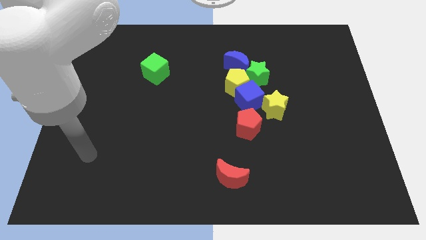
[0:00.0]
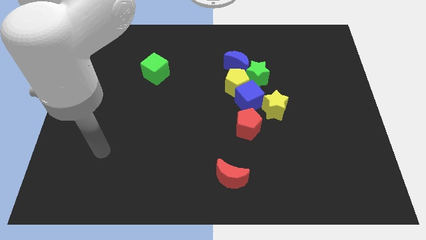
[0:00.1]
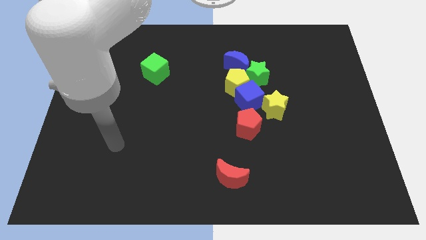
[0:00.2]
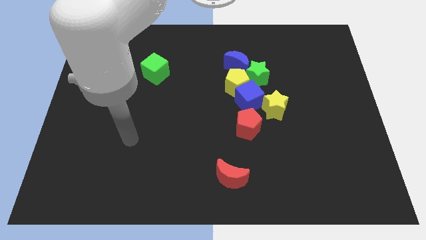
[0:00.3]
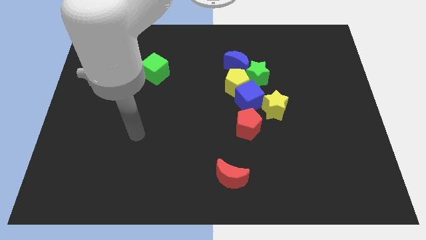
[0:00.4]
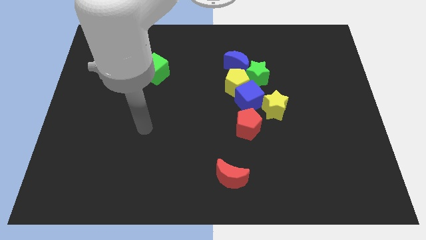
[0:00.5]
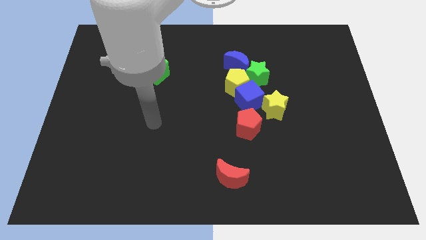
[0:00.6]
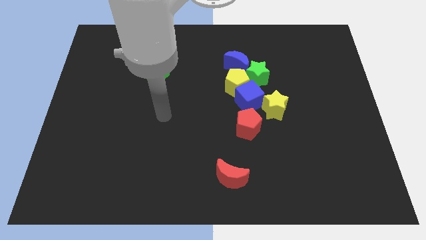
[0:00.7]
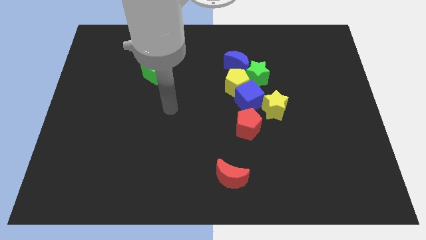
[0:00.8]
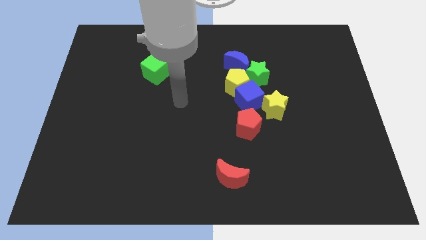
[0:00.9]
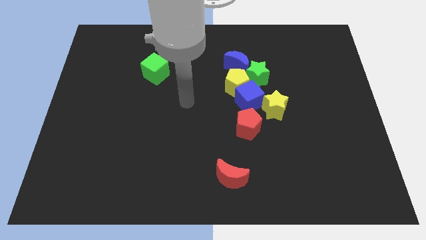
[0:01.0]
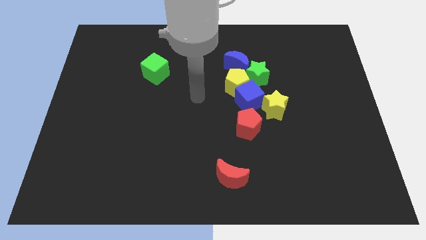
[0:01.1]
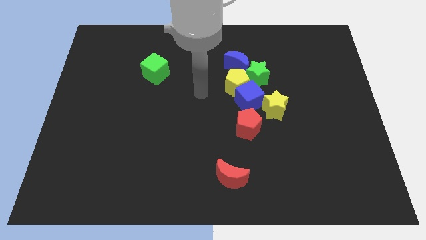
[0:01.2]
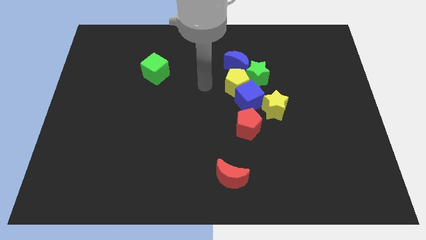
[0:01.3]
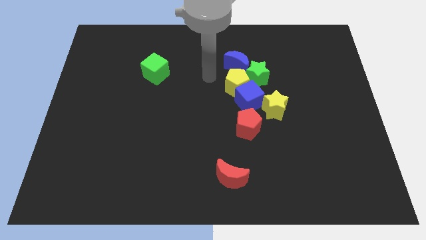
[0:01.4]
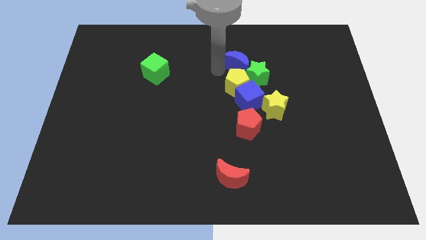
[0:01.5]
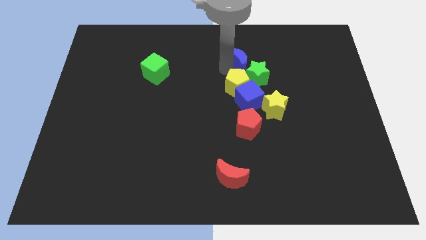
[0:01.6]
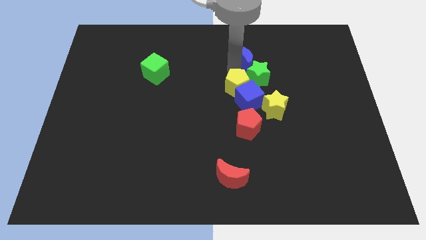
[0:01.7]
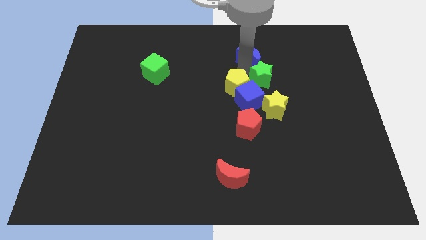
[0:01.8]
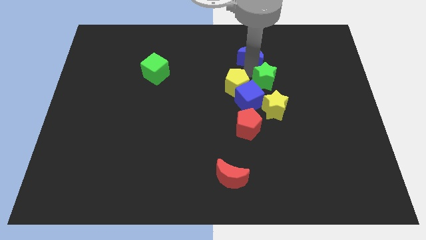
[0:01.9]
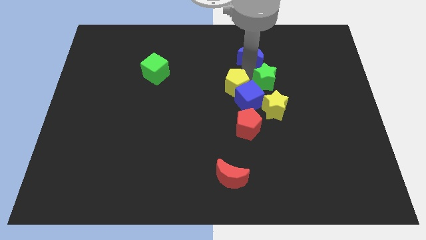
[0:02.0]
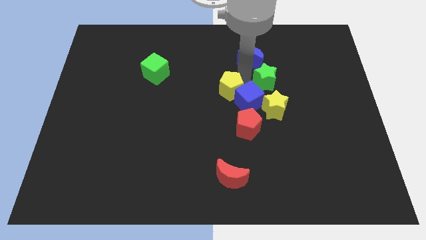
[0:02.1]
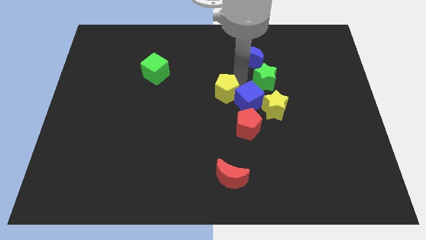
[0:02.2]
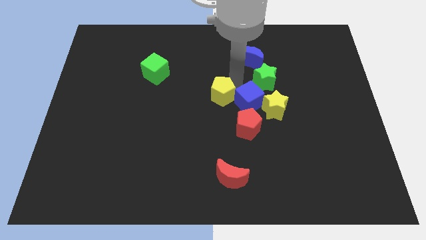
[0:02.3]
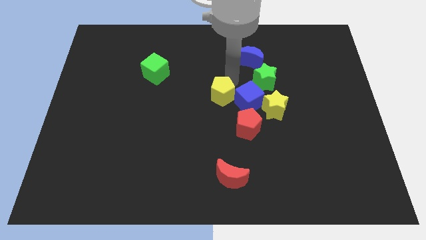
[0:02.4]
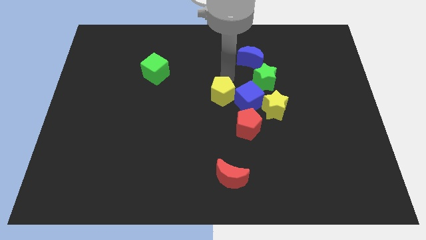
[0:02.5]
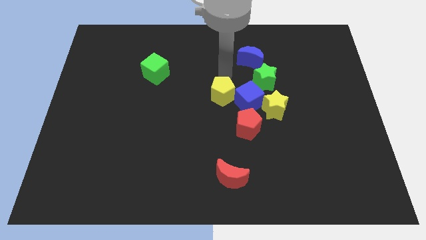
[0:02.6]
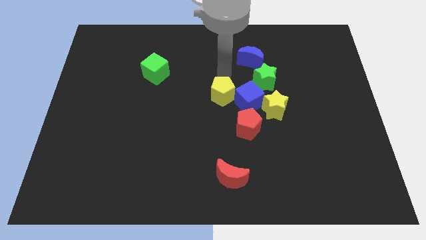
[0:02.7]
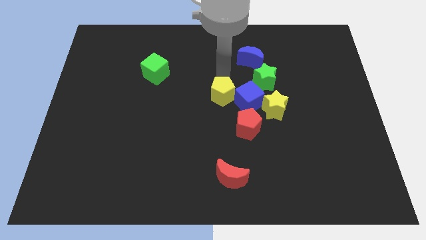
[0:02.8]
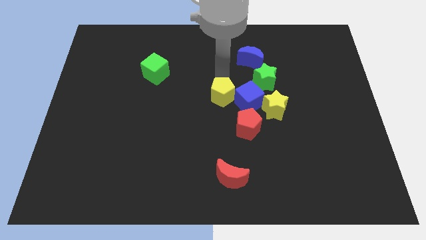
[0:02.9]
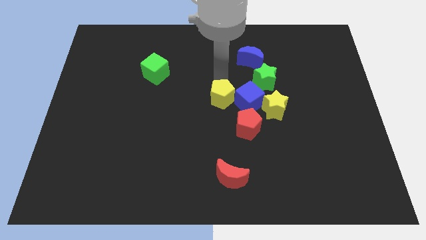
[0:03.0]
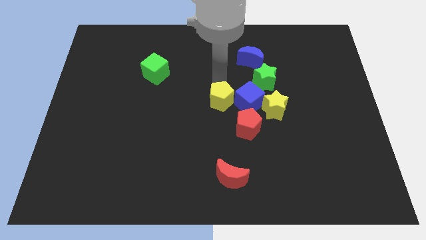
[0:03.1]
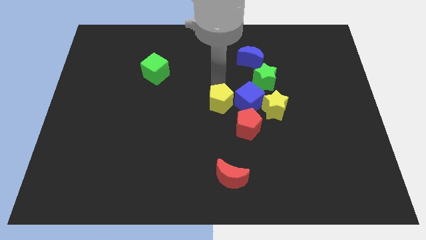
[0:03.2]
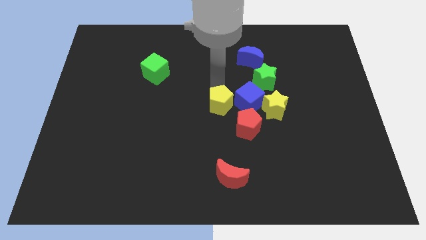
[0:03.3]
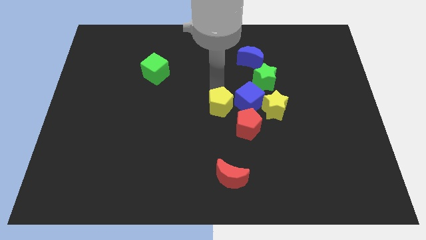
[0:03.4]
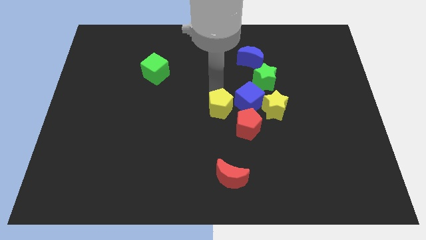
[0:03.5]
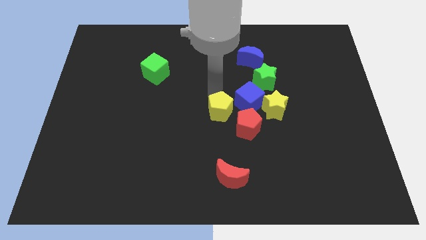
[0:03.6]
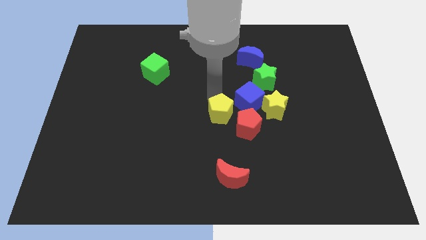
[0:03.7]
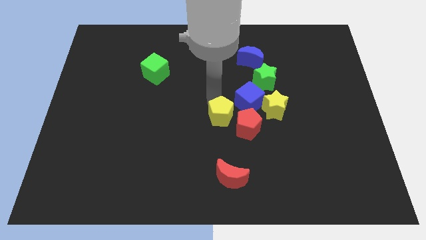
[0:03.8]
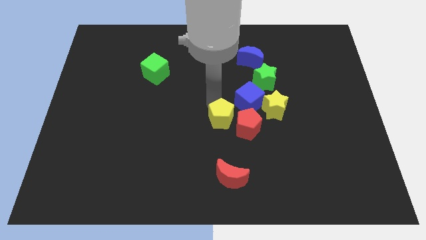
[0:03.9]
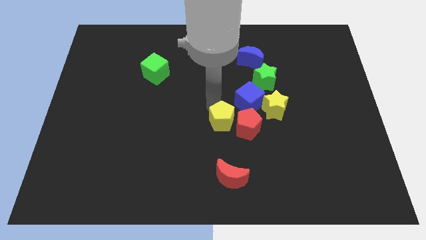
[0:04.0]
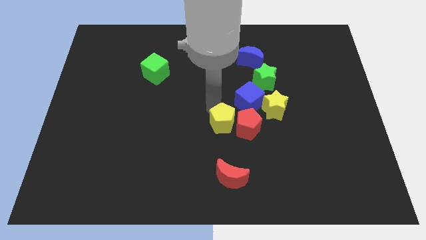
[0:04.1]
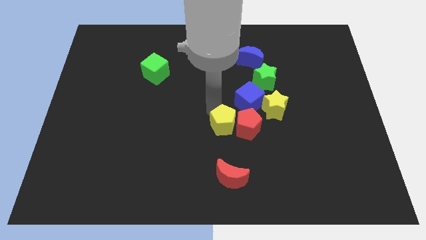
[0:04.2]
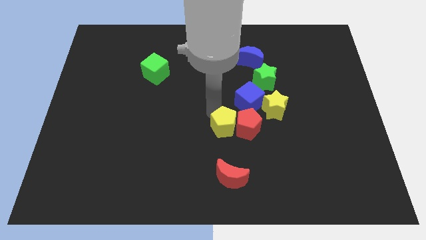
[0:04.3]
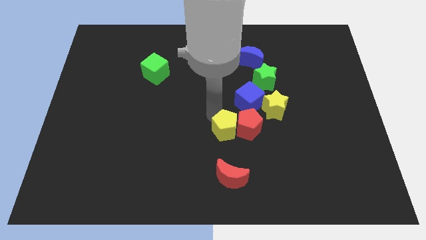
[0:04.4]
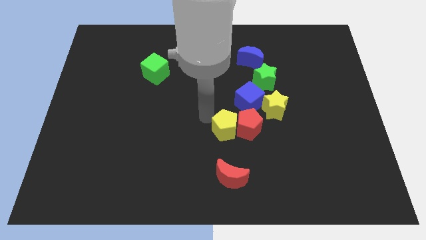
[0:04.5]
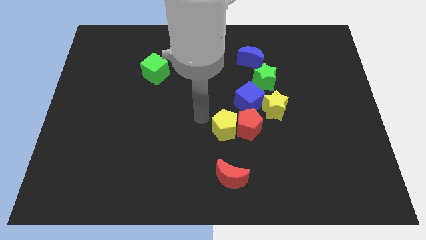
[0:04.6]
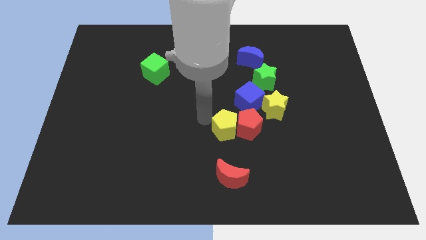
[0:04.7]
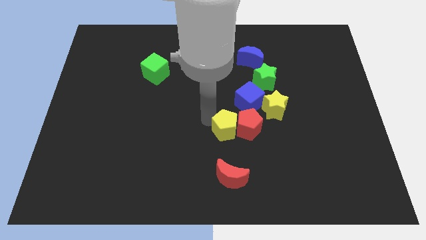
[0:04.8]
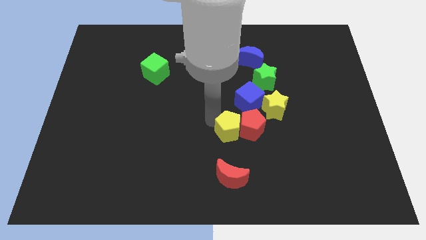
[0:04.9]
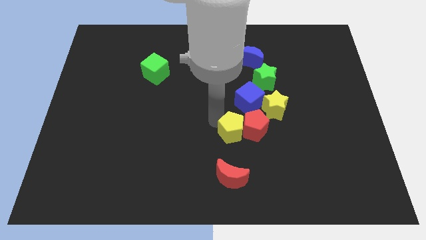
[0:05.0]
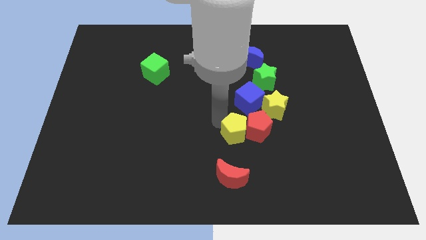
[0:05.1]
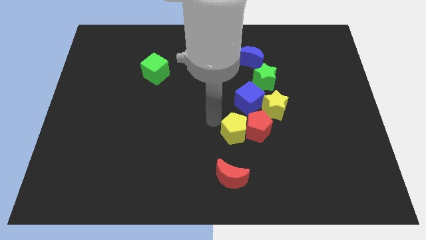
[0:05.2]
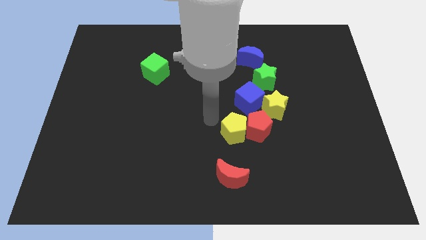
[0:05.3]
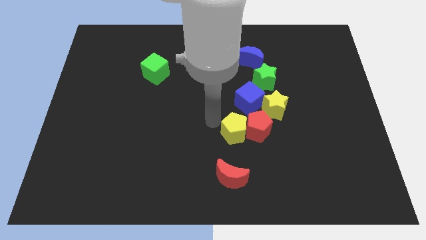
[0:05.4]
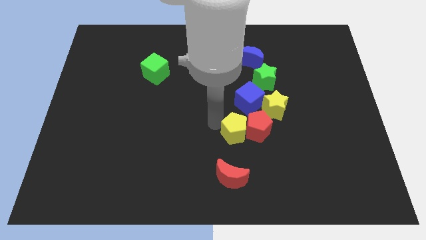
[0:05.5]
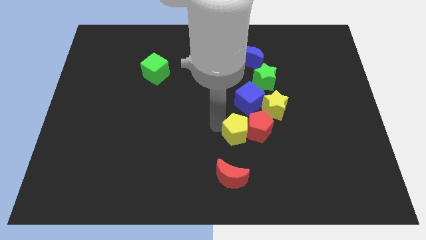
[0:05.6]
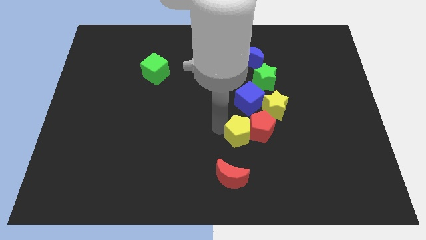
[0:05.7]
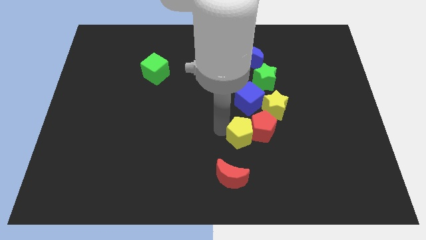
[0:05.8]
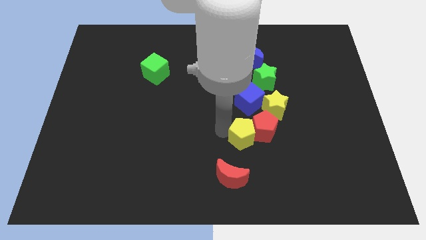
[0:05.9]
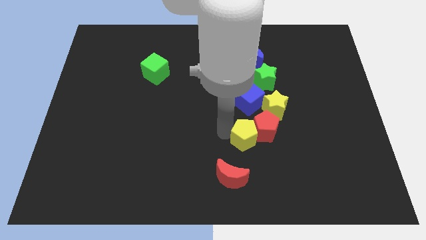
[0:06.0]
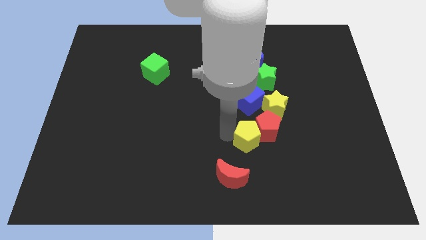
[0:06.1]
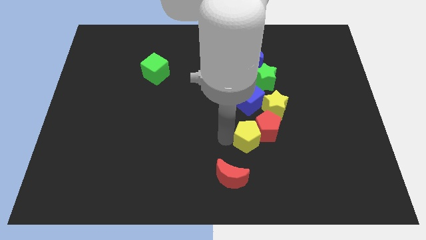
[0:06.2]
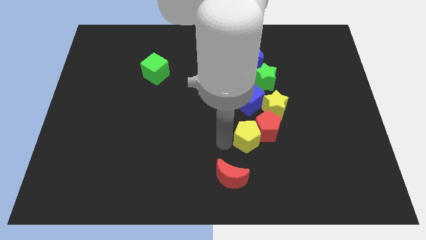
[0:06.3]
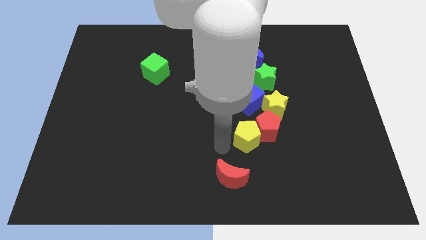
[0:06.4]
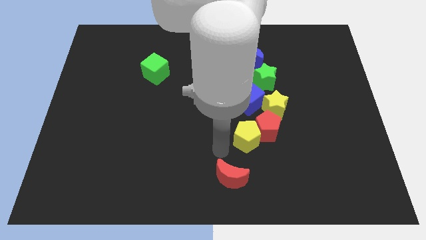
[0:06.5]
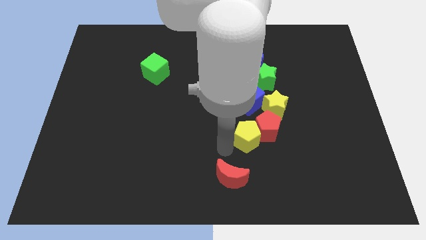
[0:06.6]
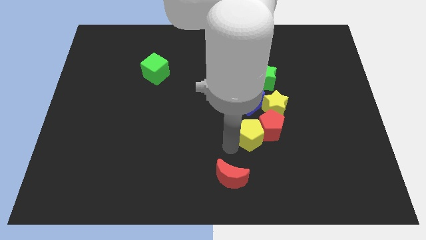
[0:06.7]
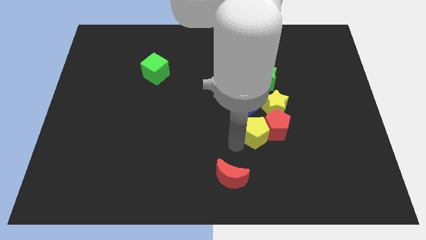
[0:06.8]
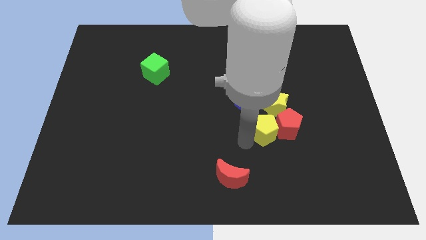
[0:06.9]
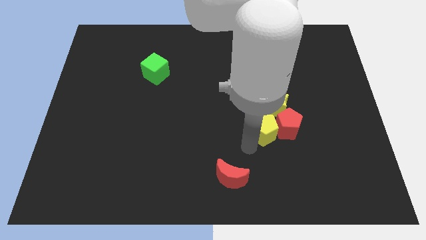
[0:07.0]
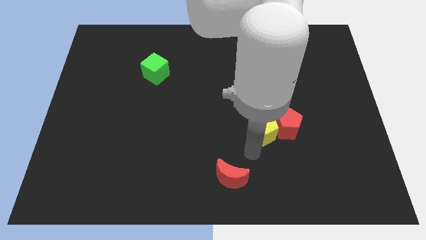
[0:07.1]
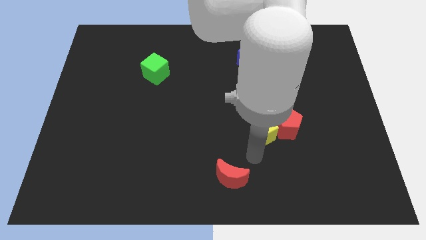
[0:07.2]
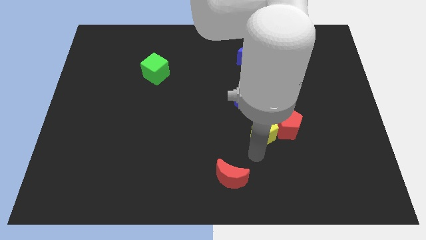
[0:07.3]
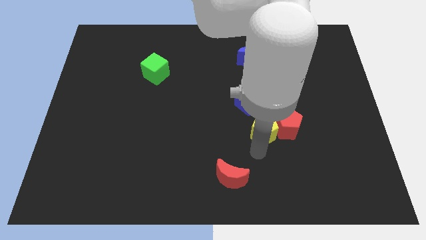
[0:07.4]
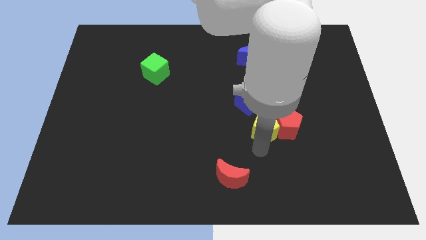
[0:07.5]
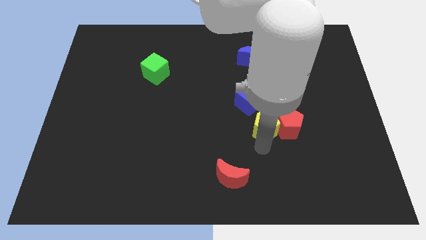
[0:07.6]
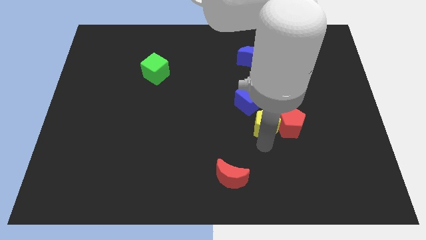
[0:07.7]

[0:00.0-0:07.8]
put the yellow pentagon close to the yellow star
